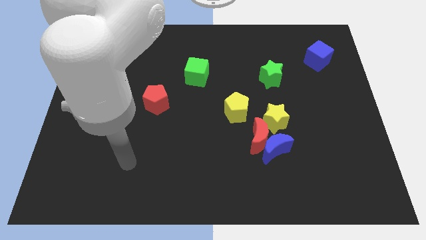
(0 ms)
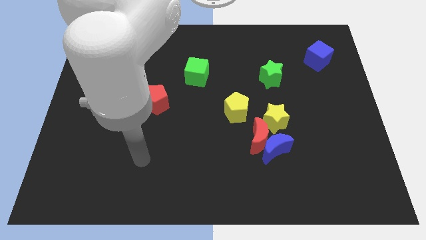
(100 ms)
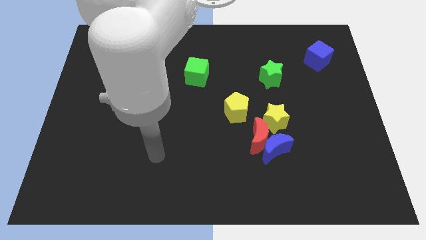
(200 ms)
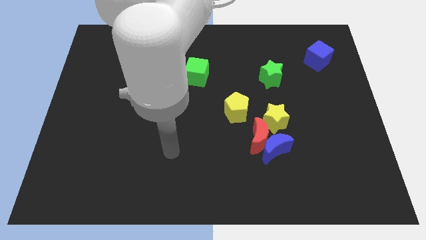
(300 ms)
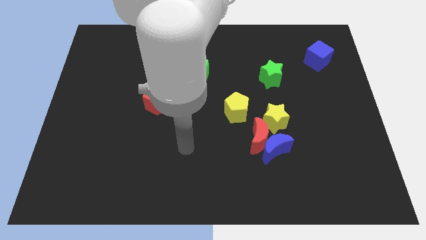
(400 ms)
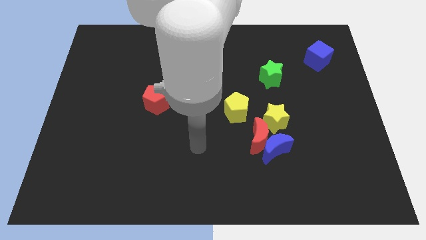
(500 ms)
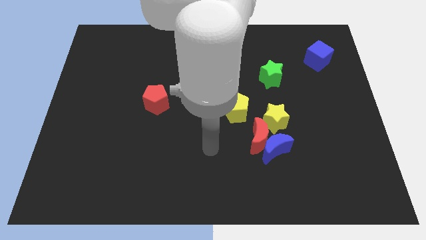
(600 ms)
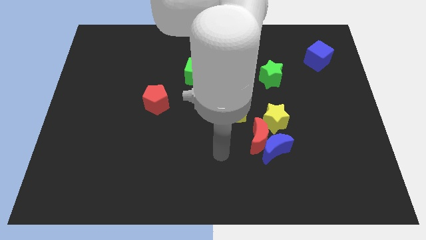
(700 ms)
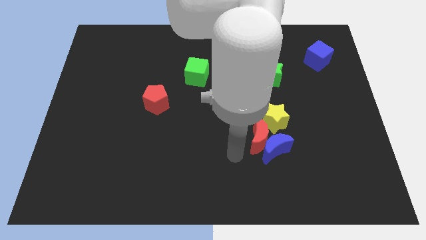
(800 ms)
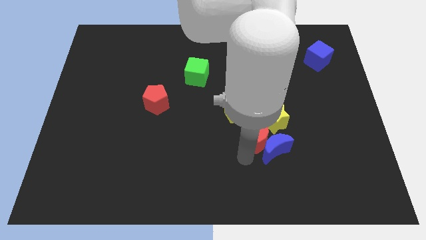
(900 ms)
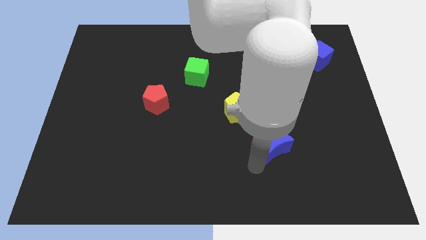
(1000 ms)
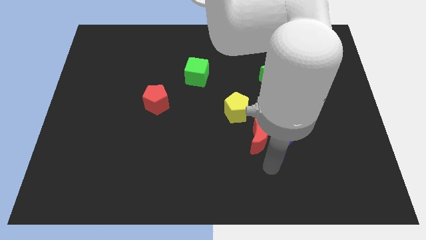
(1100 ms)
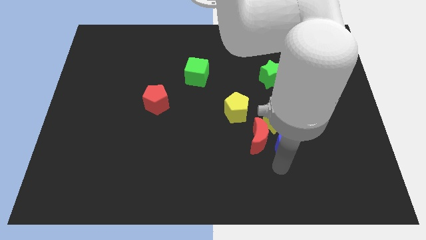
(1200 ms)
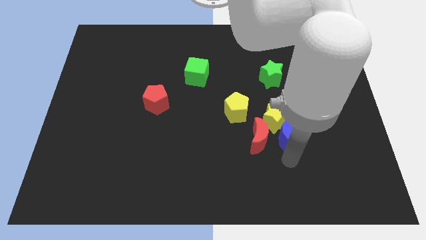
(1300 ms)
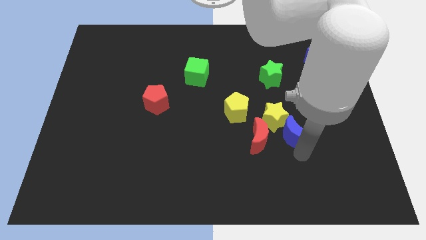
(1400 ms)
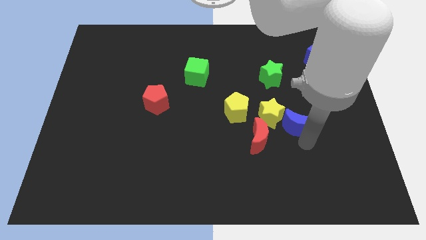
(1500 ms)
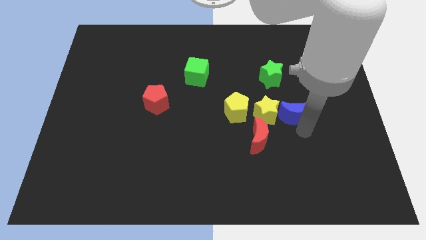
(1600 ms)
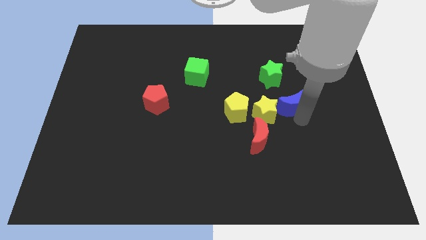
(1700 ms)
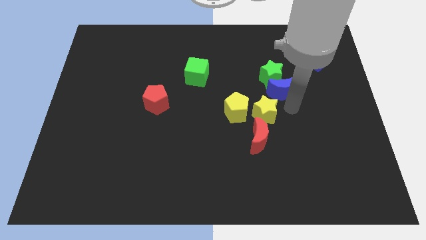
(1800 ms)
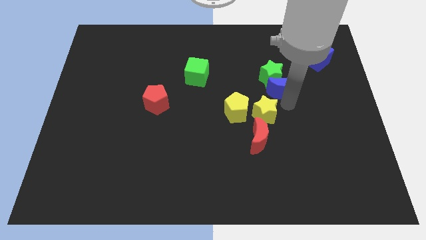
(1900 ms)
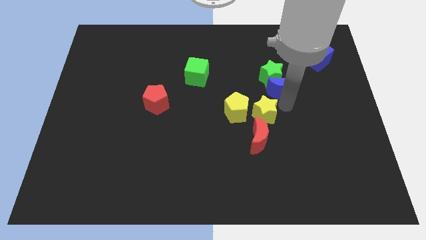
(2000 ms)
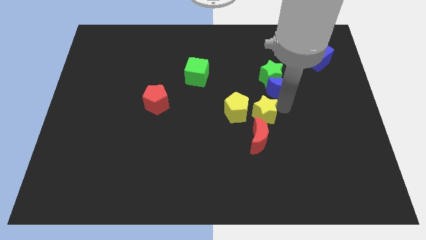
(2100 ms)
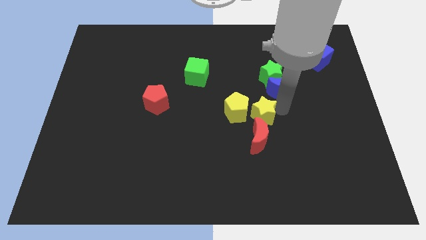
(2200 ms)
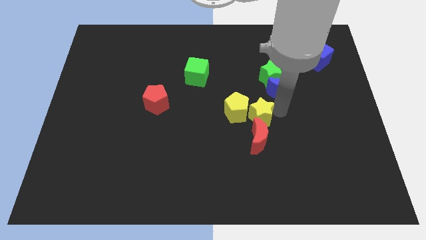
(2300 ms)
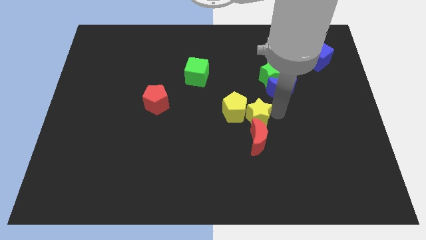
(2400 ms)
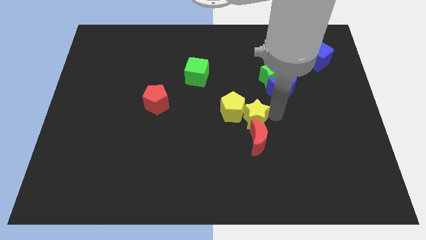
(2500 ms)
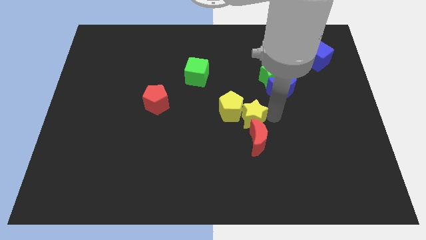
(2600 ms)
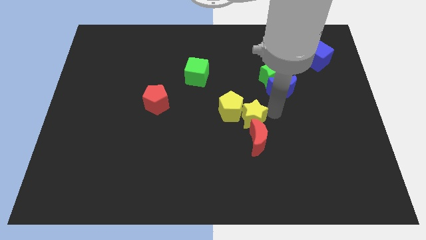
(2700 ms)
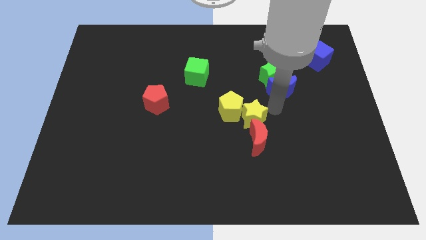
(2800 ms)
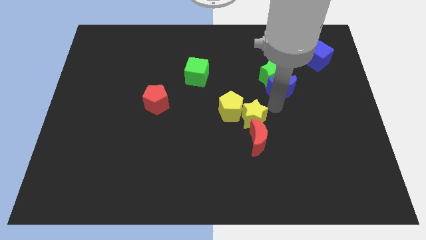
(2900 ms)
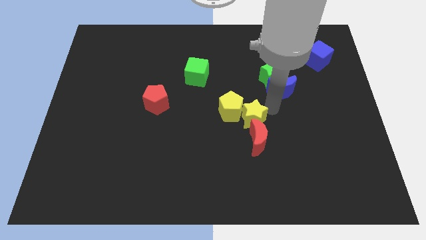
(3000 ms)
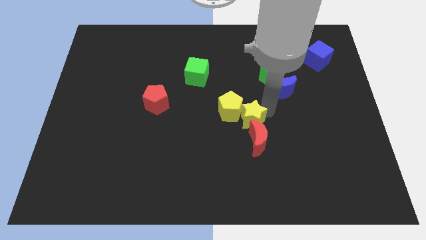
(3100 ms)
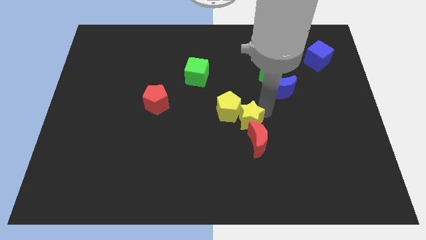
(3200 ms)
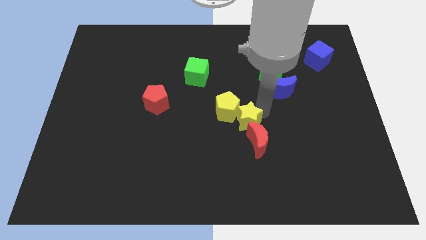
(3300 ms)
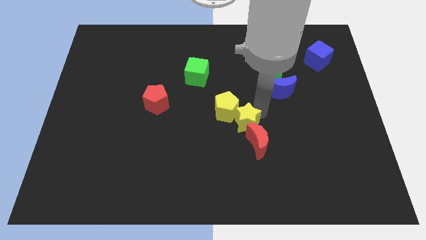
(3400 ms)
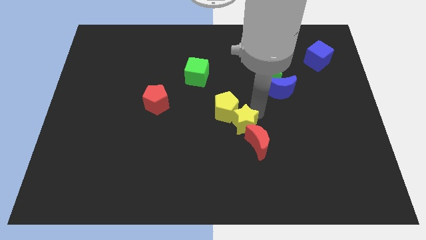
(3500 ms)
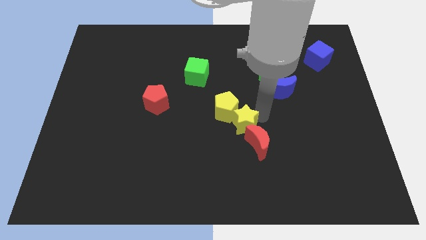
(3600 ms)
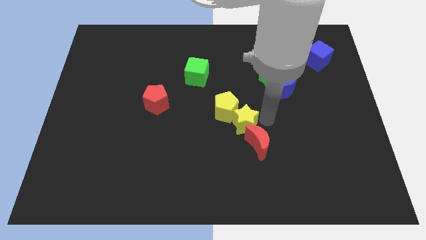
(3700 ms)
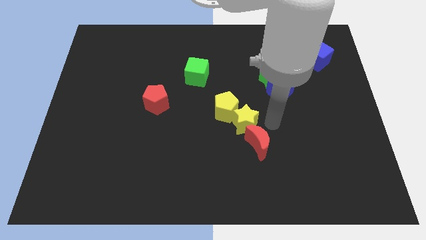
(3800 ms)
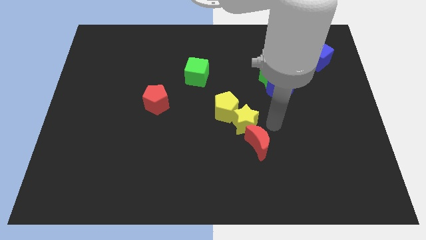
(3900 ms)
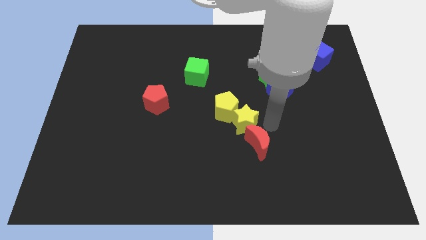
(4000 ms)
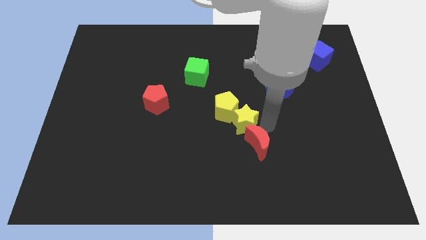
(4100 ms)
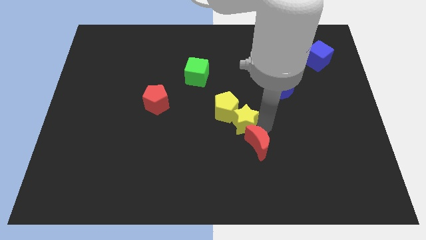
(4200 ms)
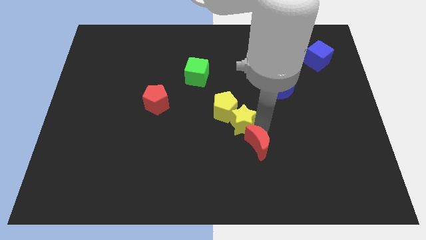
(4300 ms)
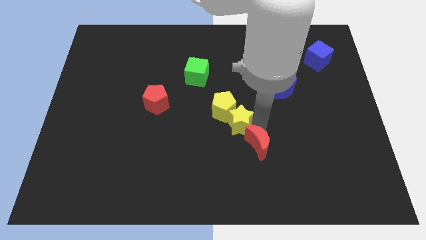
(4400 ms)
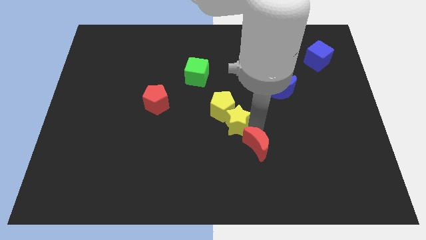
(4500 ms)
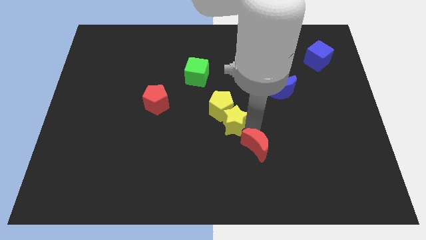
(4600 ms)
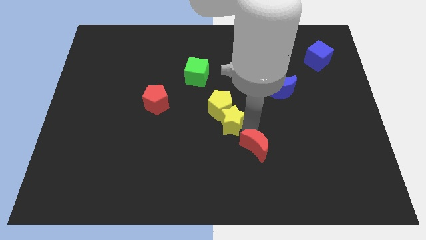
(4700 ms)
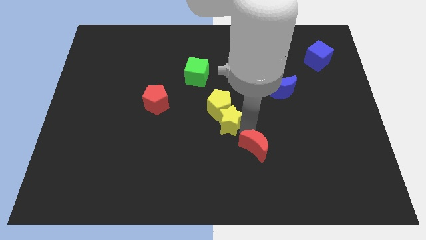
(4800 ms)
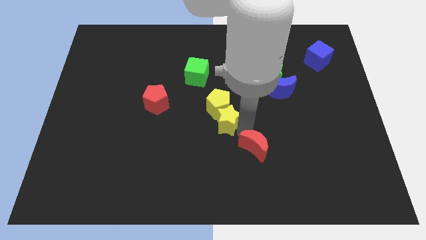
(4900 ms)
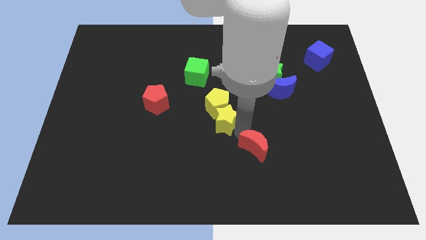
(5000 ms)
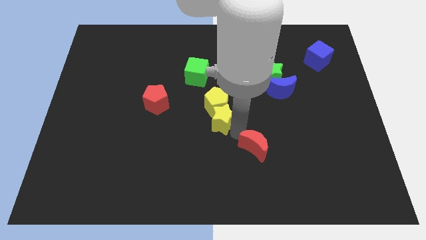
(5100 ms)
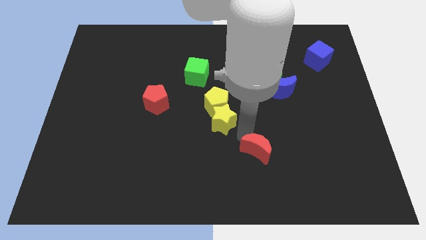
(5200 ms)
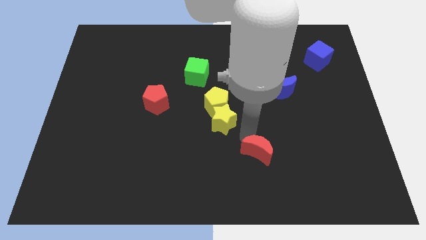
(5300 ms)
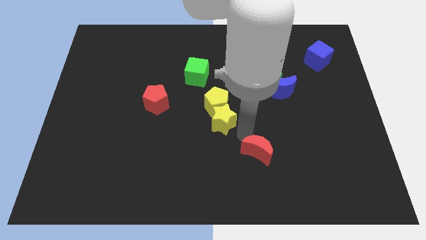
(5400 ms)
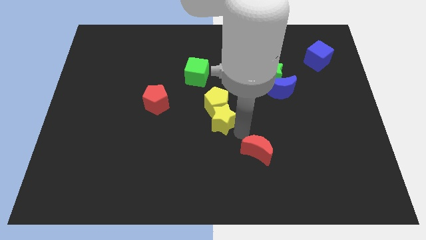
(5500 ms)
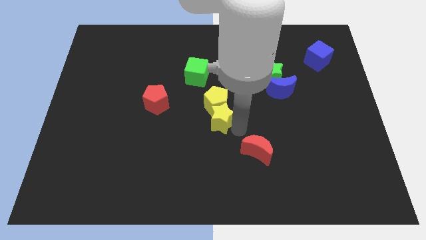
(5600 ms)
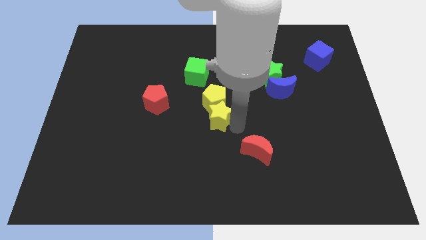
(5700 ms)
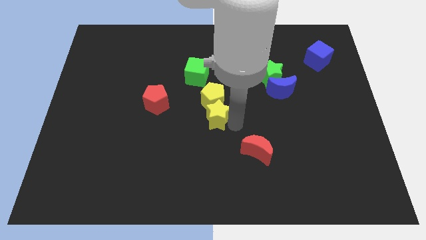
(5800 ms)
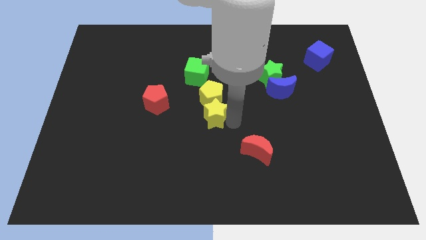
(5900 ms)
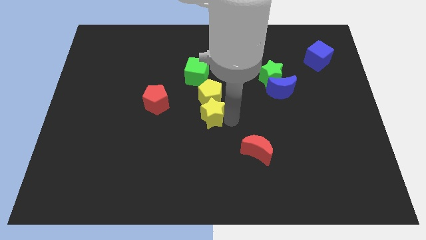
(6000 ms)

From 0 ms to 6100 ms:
push the yellow star to the bottom side of the green cube

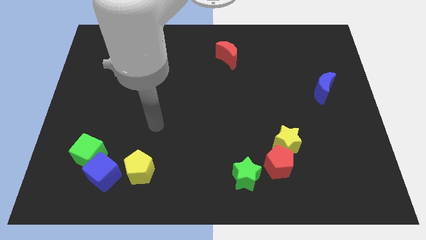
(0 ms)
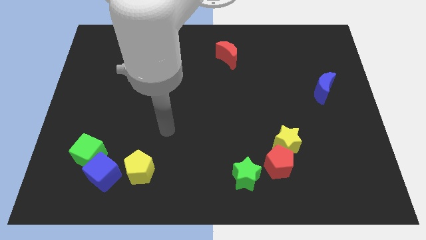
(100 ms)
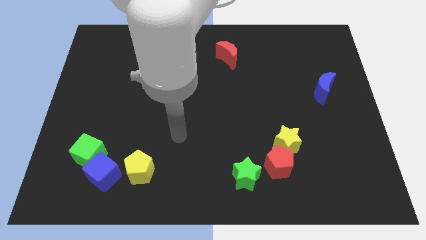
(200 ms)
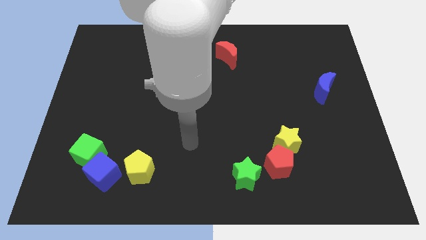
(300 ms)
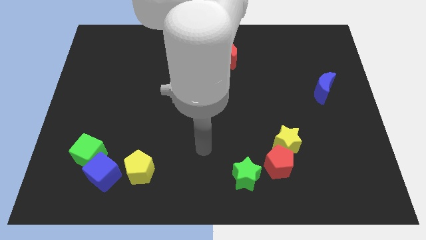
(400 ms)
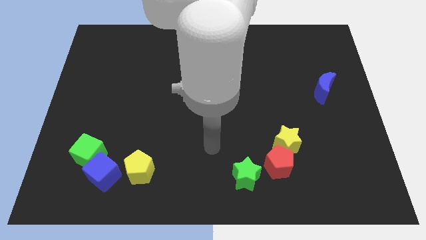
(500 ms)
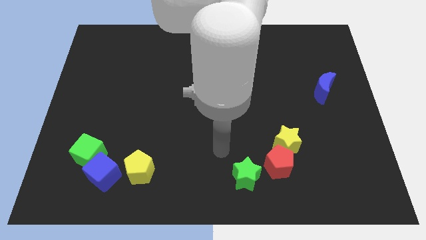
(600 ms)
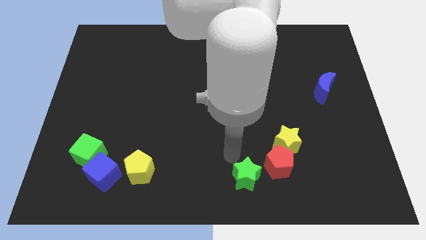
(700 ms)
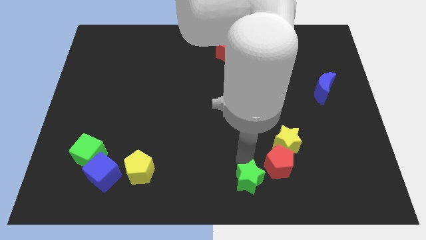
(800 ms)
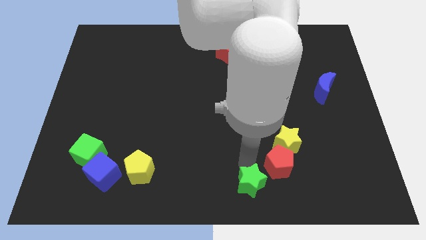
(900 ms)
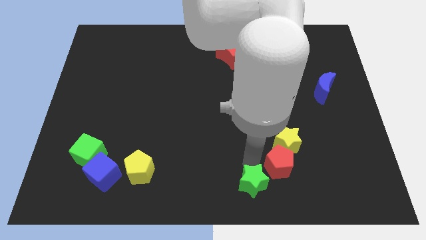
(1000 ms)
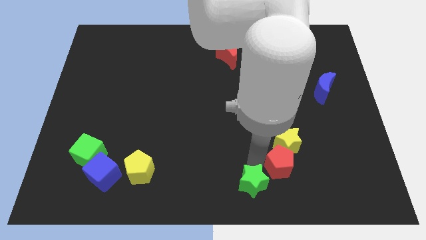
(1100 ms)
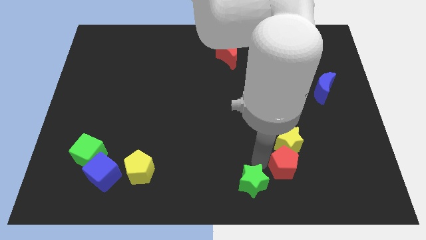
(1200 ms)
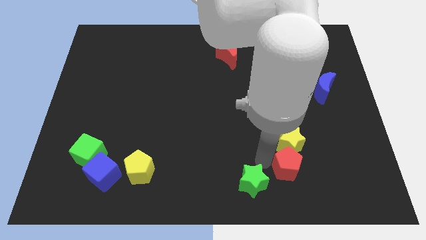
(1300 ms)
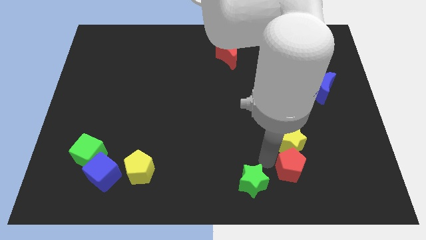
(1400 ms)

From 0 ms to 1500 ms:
push the red pentagon diagonally down and to the right of the yellow star
